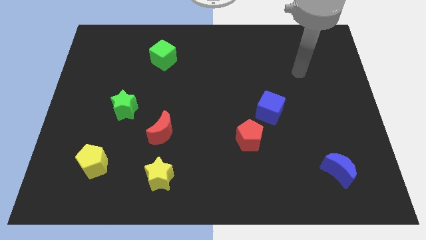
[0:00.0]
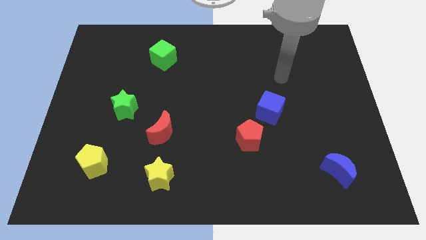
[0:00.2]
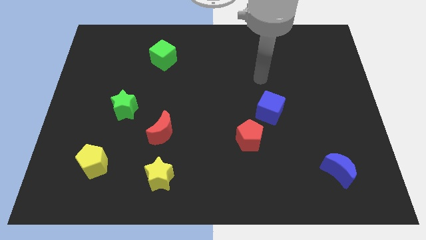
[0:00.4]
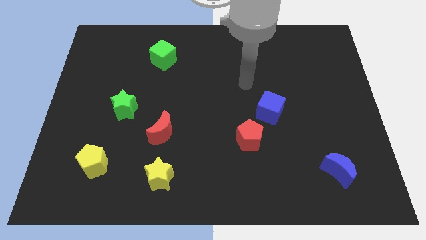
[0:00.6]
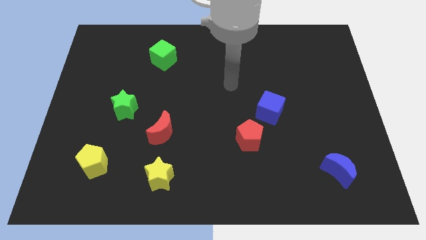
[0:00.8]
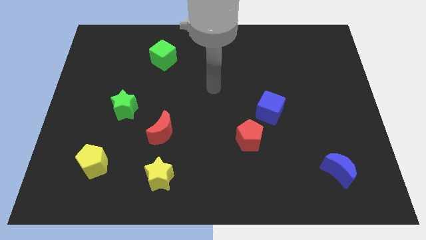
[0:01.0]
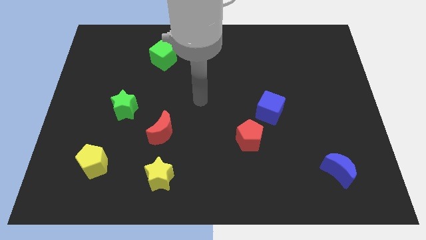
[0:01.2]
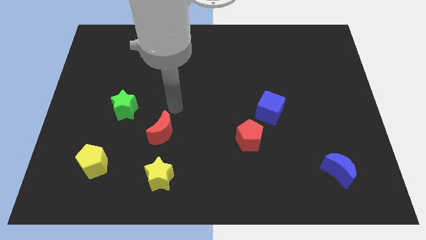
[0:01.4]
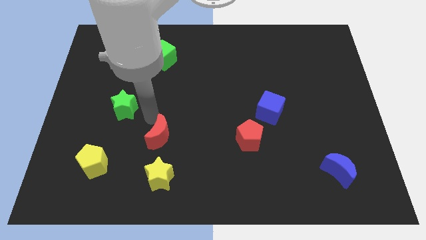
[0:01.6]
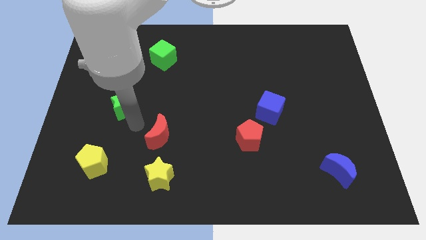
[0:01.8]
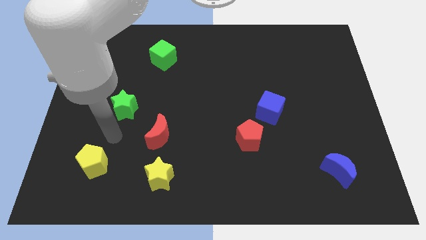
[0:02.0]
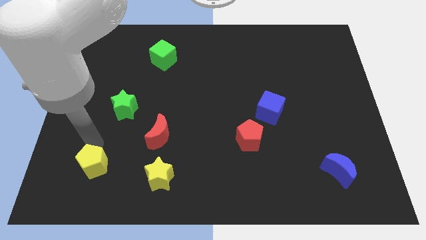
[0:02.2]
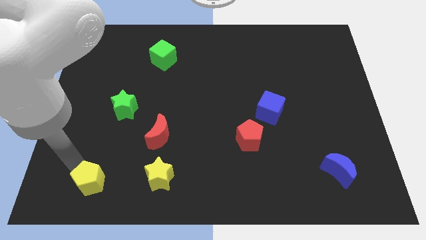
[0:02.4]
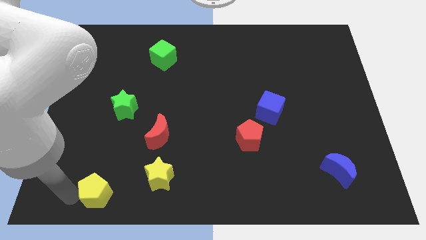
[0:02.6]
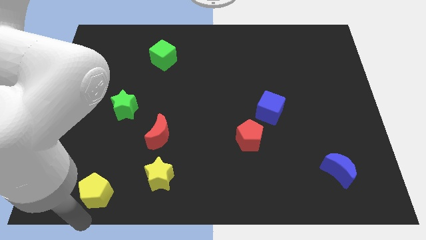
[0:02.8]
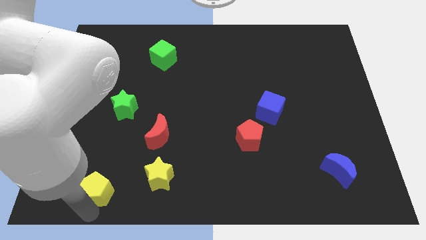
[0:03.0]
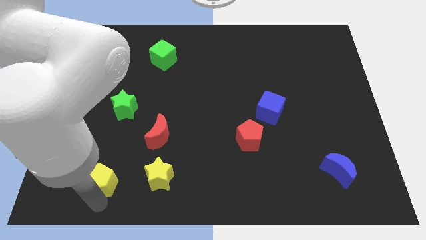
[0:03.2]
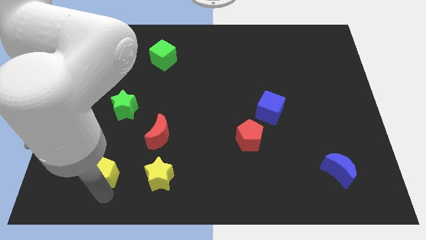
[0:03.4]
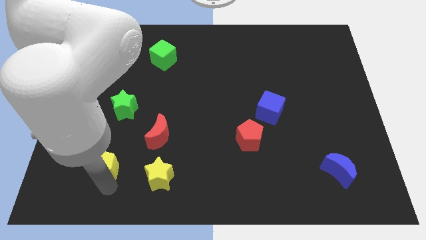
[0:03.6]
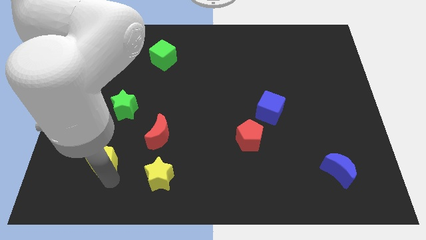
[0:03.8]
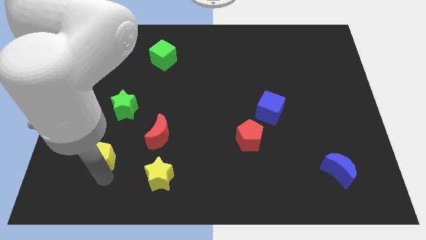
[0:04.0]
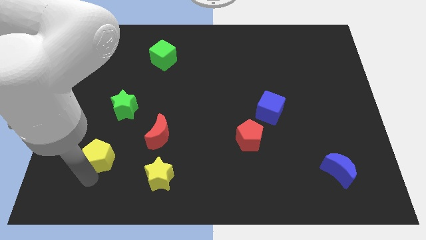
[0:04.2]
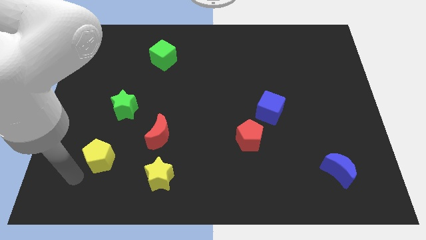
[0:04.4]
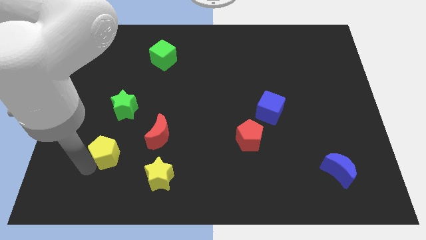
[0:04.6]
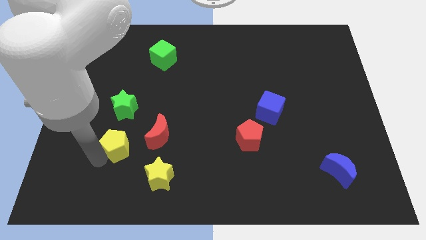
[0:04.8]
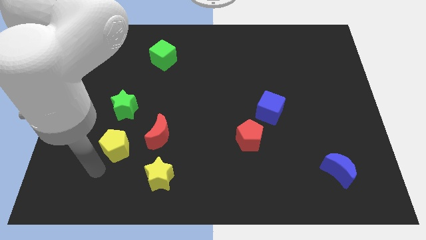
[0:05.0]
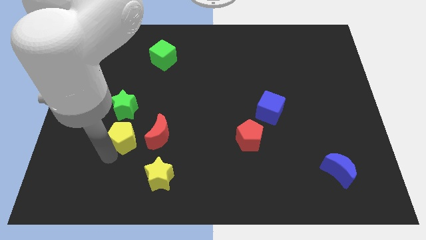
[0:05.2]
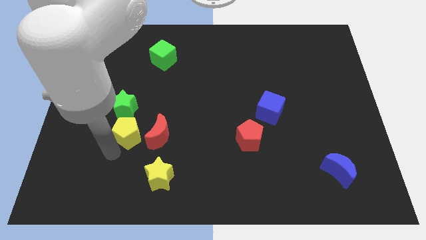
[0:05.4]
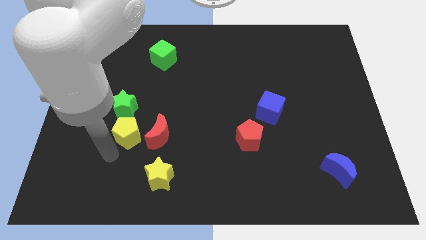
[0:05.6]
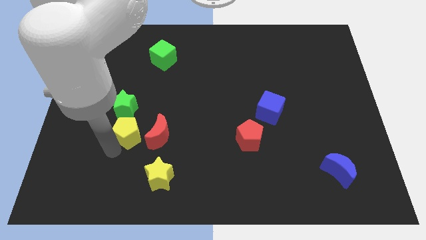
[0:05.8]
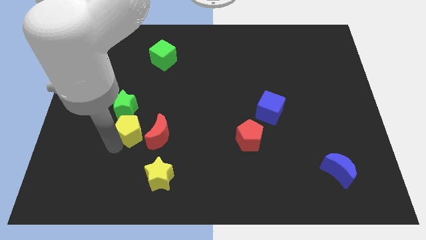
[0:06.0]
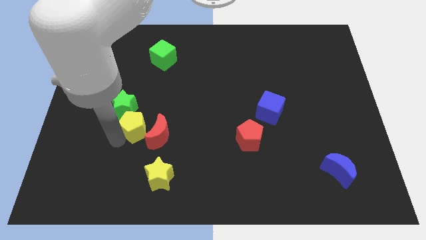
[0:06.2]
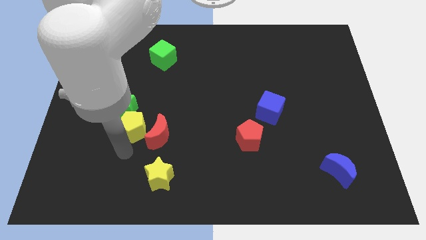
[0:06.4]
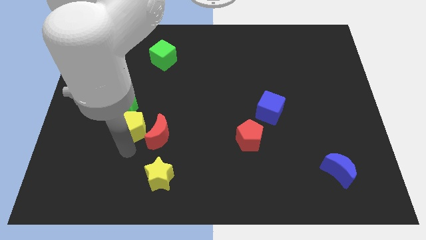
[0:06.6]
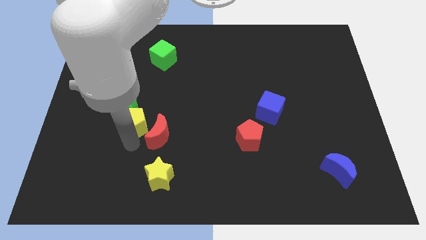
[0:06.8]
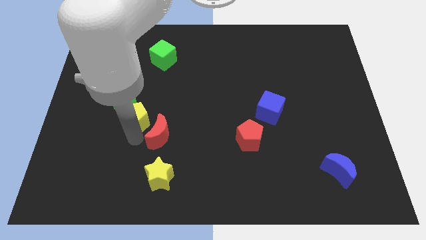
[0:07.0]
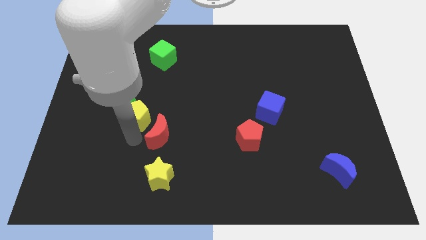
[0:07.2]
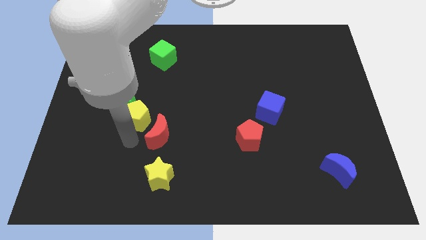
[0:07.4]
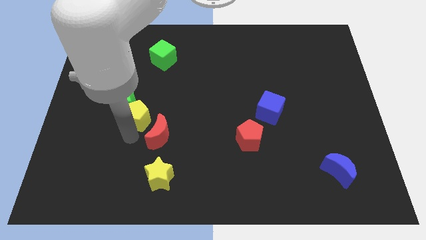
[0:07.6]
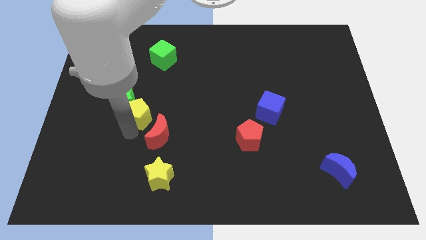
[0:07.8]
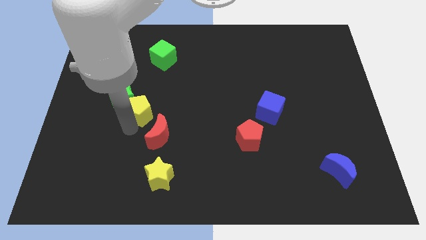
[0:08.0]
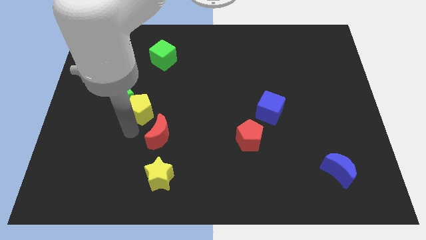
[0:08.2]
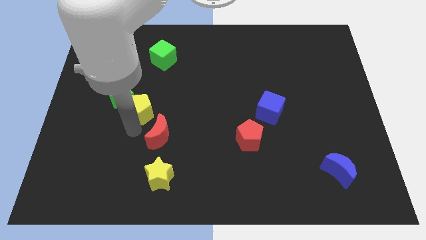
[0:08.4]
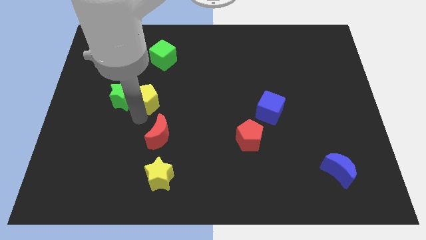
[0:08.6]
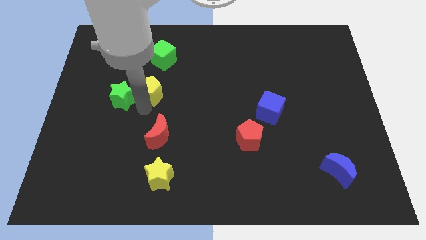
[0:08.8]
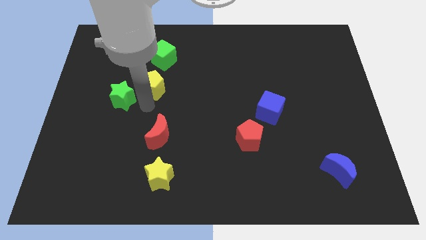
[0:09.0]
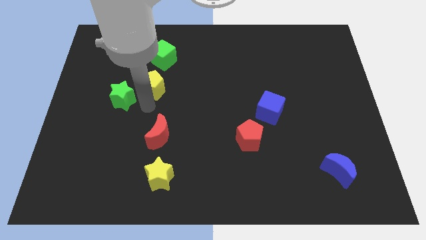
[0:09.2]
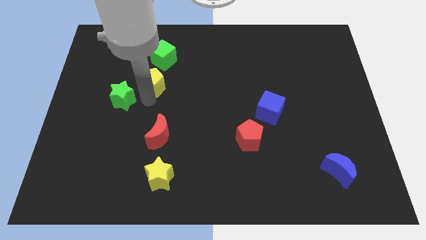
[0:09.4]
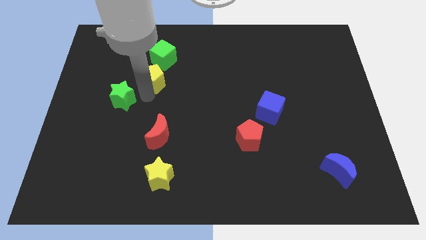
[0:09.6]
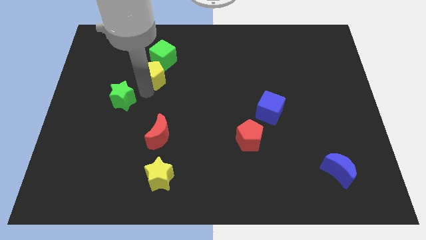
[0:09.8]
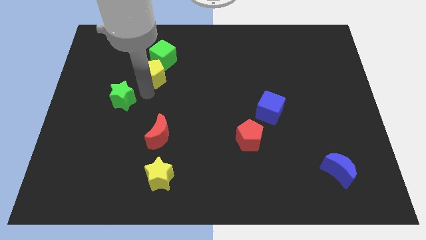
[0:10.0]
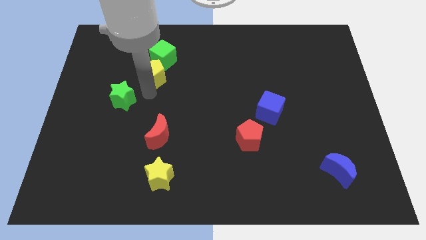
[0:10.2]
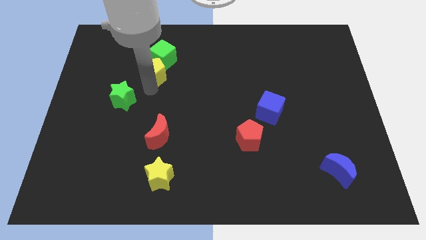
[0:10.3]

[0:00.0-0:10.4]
slide the yellow pentagon towards the green cube

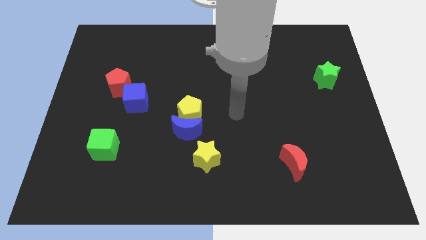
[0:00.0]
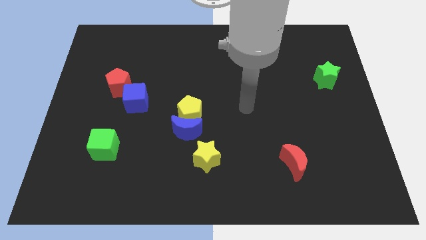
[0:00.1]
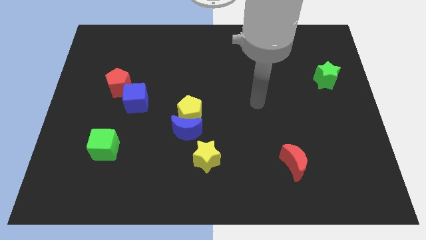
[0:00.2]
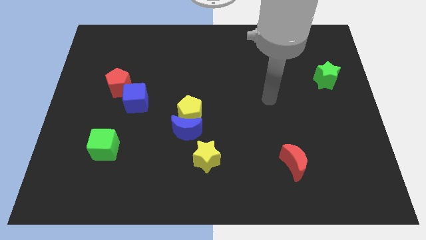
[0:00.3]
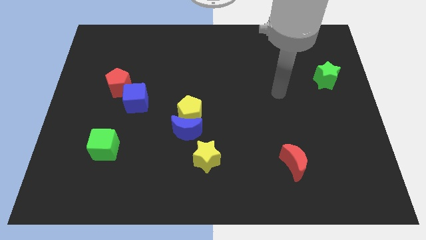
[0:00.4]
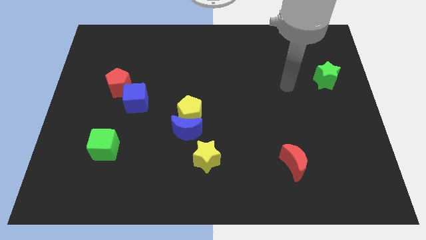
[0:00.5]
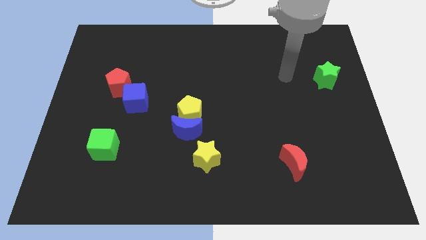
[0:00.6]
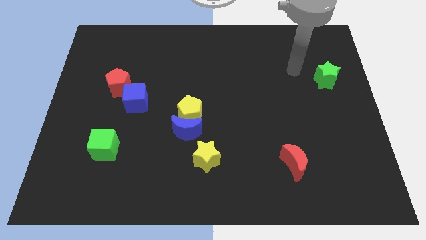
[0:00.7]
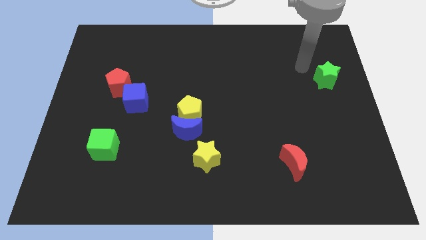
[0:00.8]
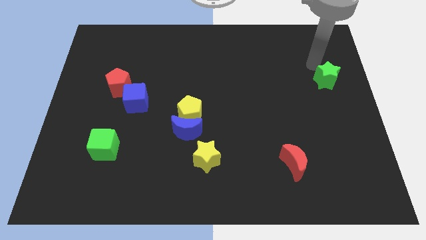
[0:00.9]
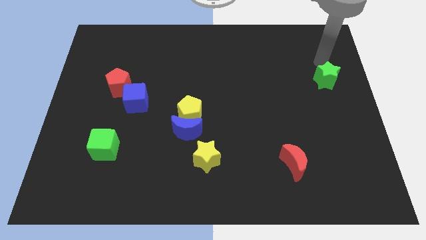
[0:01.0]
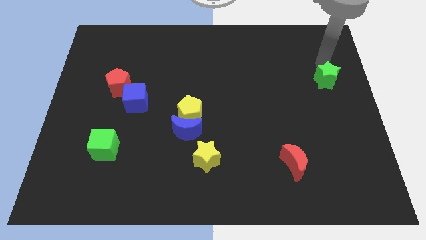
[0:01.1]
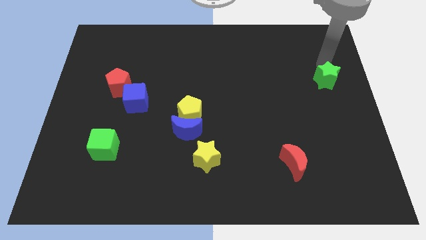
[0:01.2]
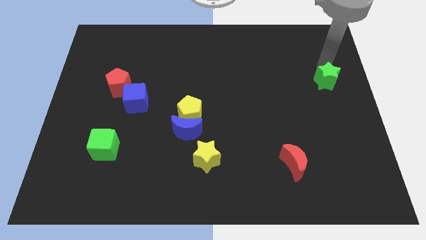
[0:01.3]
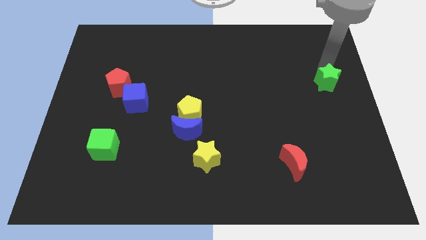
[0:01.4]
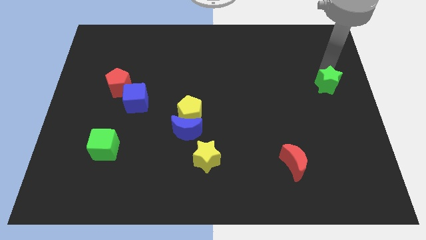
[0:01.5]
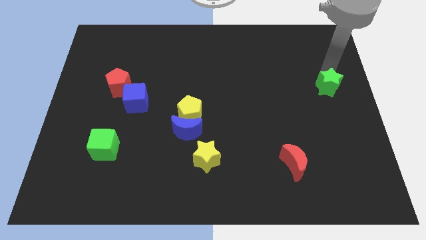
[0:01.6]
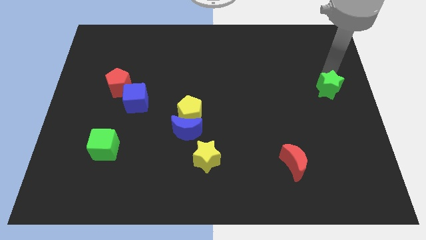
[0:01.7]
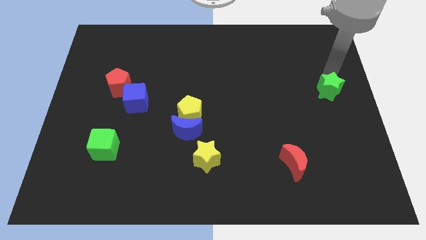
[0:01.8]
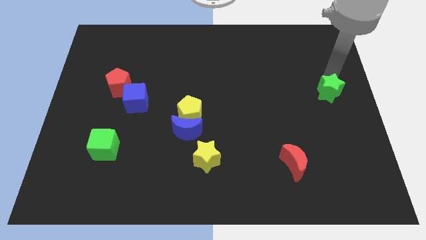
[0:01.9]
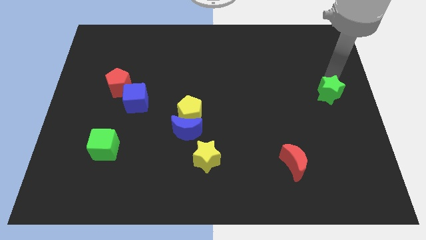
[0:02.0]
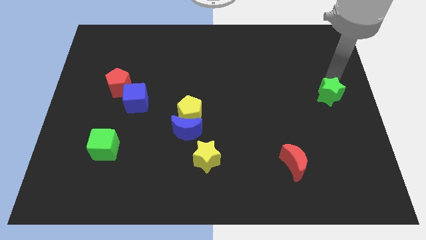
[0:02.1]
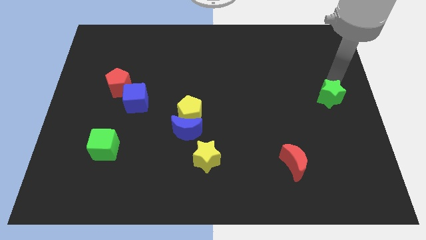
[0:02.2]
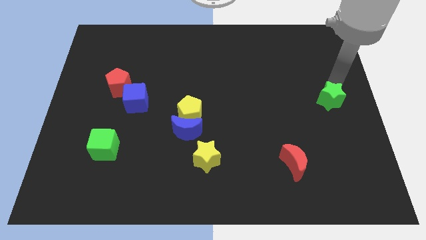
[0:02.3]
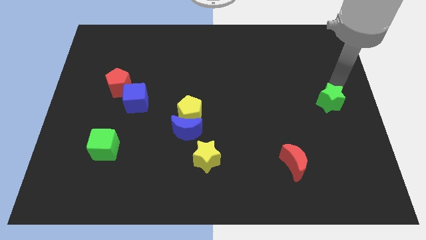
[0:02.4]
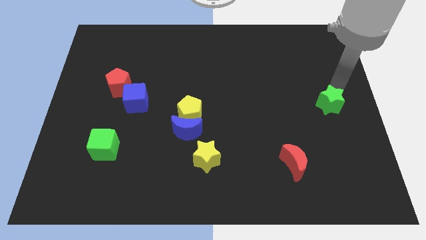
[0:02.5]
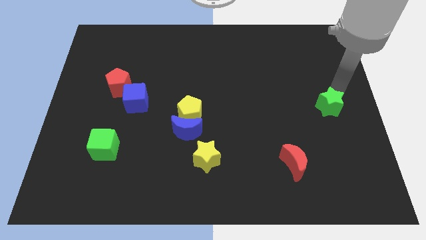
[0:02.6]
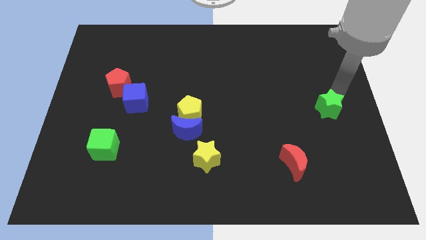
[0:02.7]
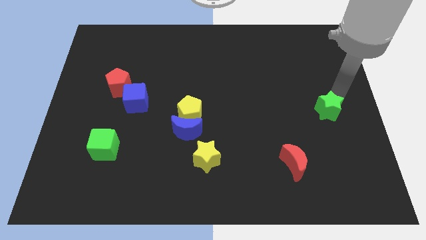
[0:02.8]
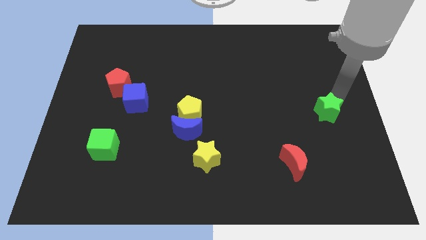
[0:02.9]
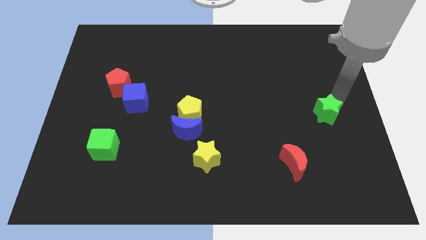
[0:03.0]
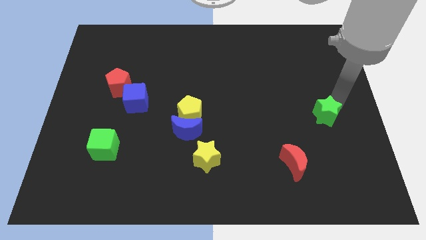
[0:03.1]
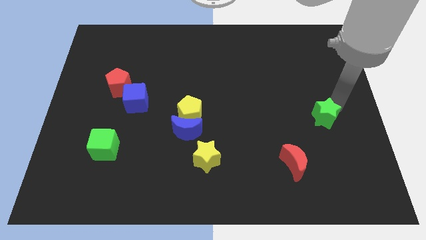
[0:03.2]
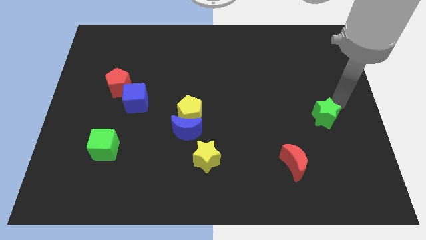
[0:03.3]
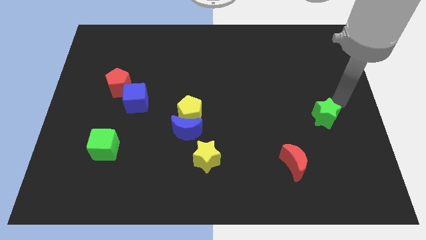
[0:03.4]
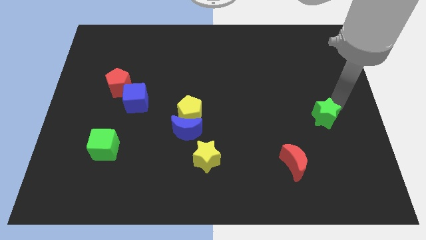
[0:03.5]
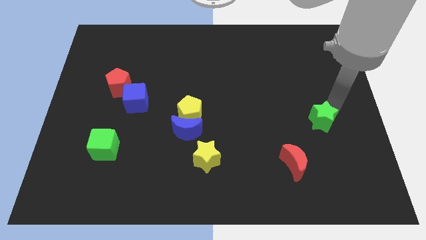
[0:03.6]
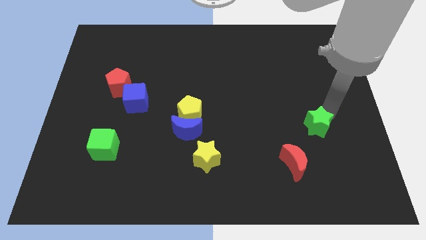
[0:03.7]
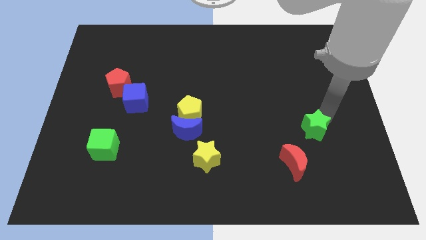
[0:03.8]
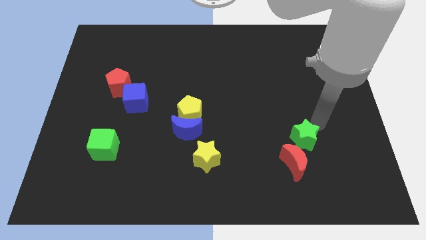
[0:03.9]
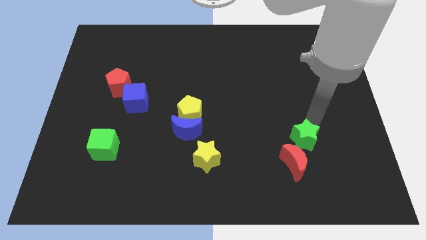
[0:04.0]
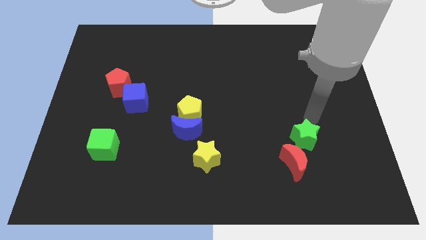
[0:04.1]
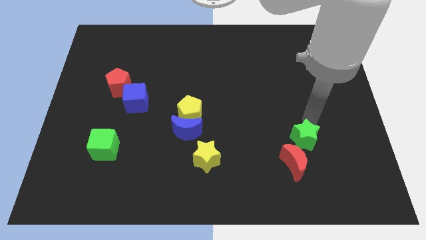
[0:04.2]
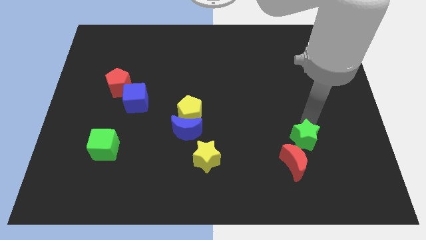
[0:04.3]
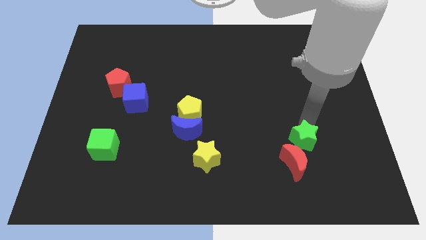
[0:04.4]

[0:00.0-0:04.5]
push the green star close to the red moon
